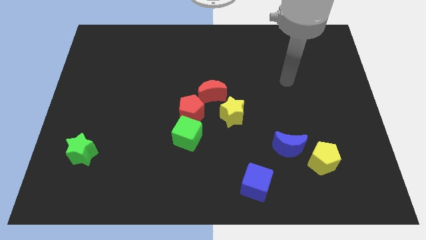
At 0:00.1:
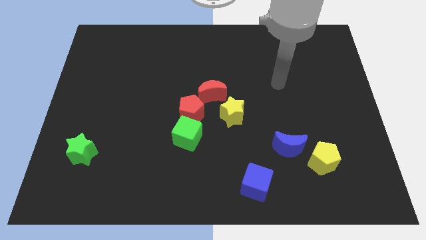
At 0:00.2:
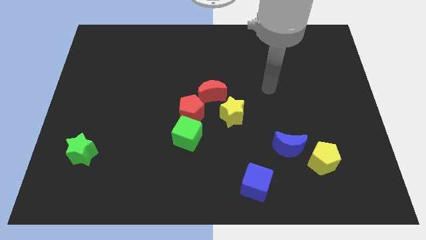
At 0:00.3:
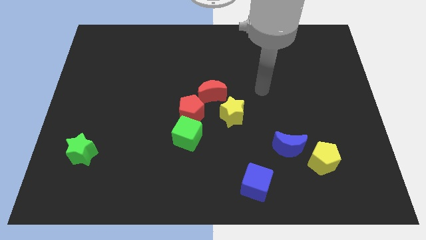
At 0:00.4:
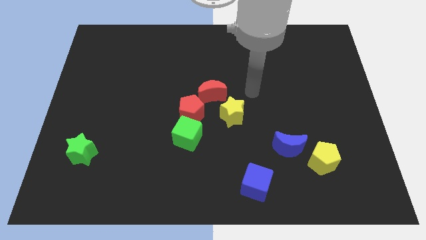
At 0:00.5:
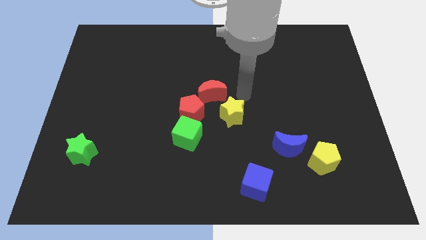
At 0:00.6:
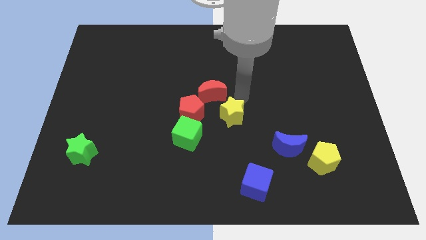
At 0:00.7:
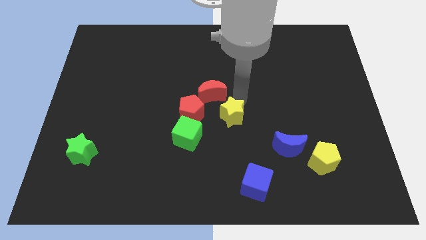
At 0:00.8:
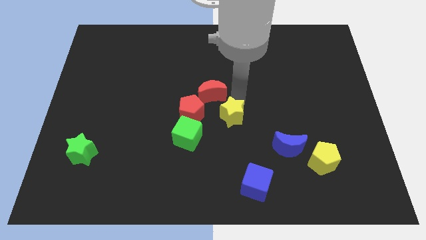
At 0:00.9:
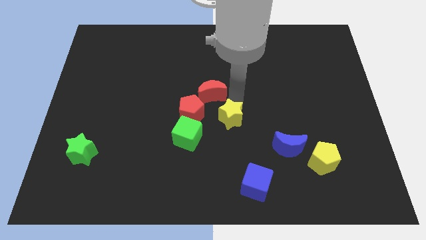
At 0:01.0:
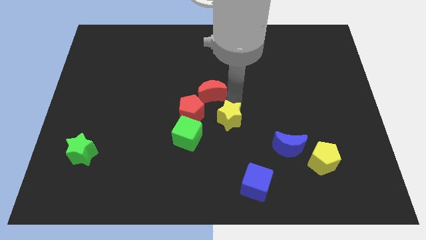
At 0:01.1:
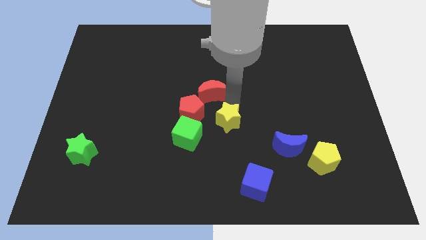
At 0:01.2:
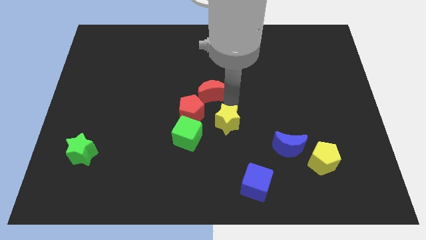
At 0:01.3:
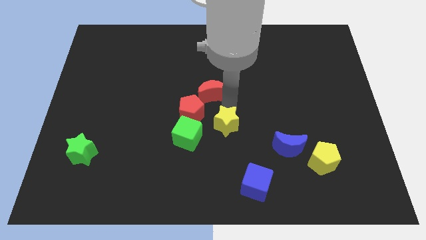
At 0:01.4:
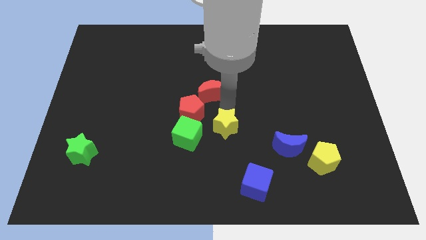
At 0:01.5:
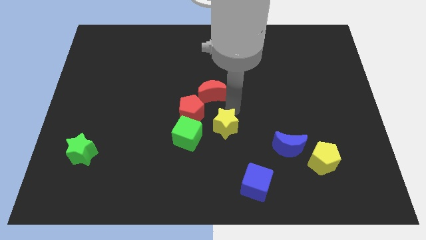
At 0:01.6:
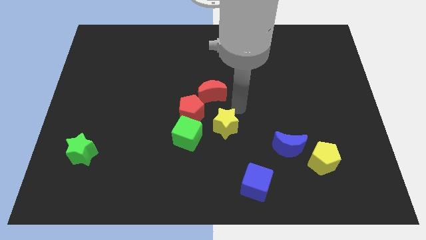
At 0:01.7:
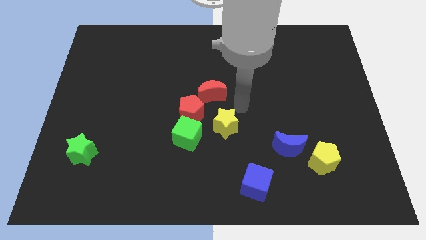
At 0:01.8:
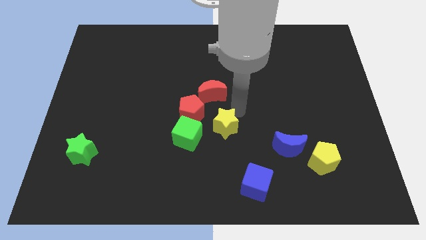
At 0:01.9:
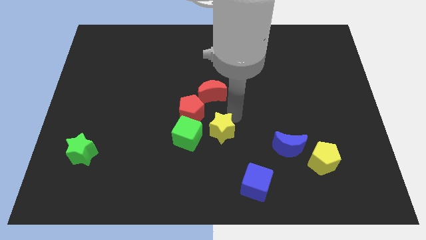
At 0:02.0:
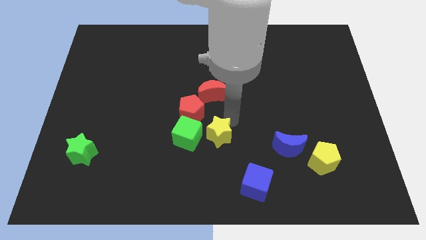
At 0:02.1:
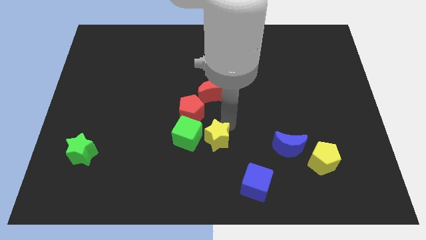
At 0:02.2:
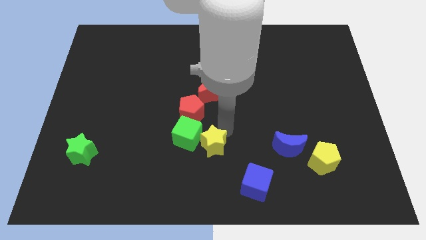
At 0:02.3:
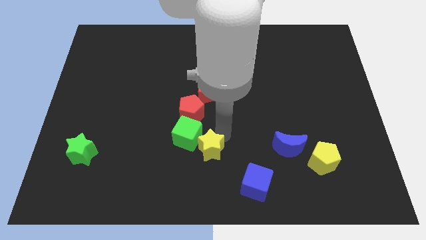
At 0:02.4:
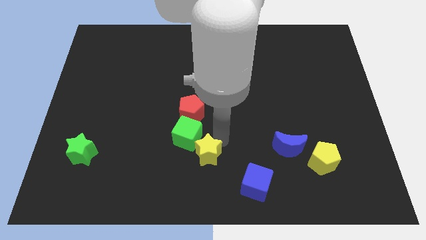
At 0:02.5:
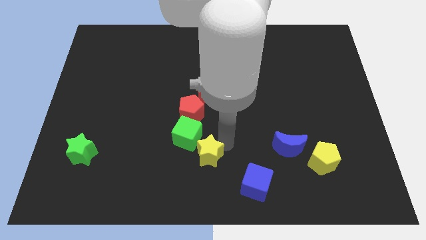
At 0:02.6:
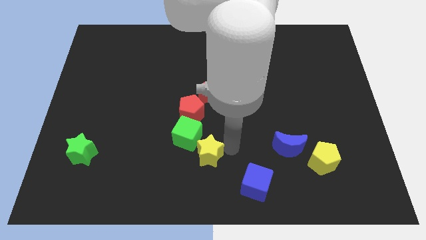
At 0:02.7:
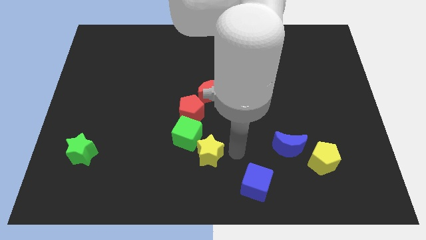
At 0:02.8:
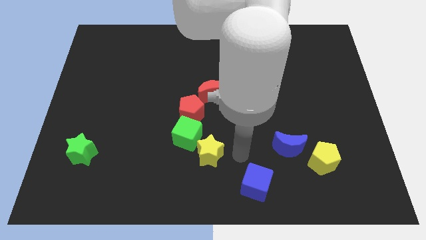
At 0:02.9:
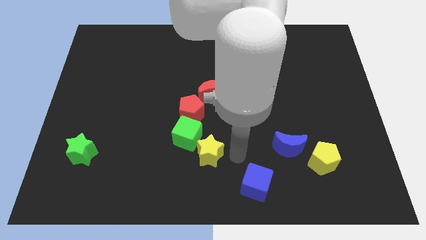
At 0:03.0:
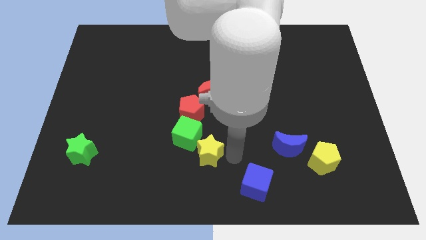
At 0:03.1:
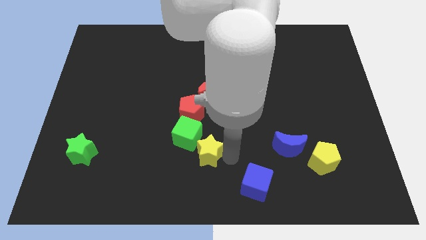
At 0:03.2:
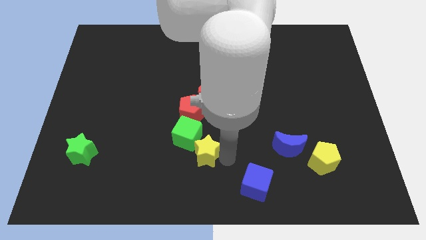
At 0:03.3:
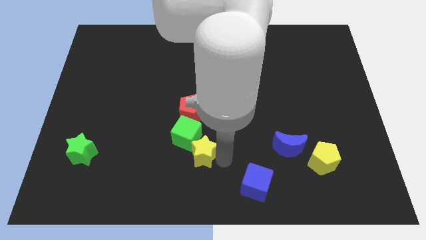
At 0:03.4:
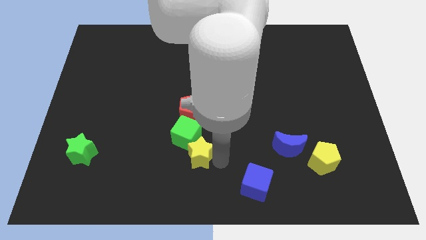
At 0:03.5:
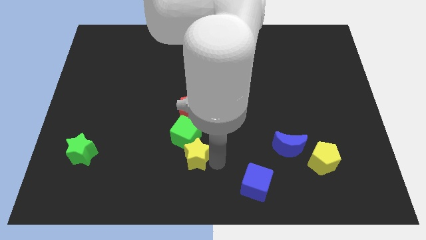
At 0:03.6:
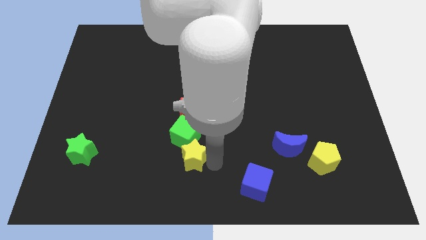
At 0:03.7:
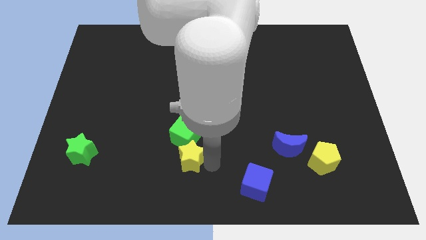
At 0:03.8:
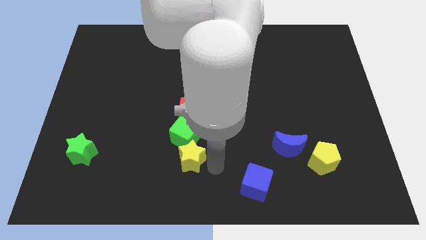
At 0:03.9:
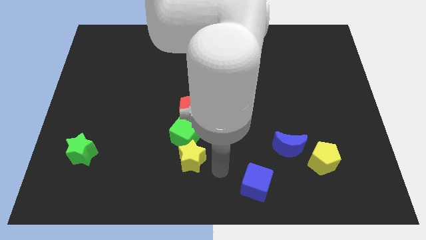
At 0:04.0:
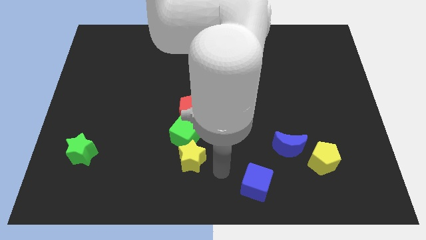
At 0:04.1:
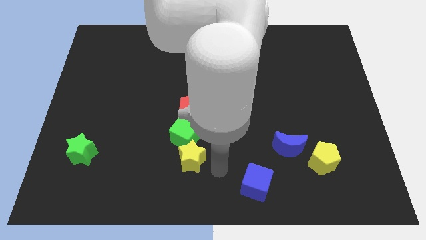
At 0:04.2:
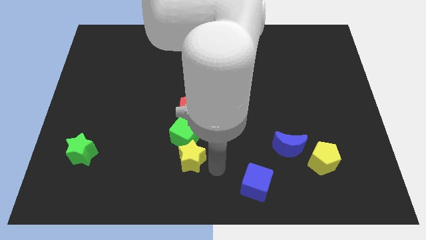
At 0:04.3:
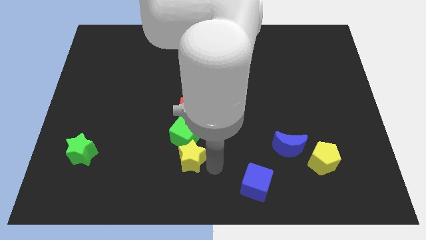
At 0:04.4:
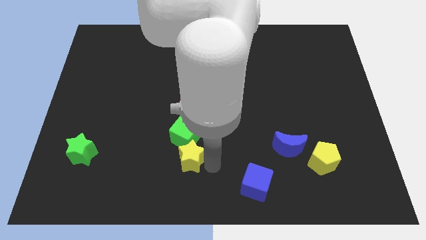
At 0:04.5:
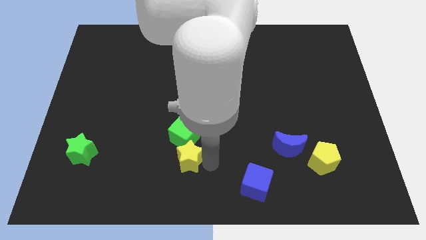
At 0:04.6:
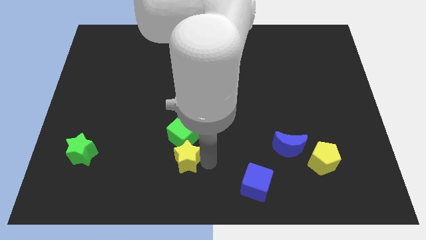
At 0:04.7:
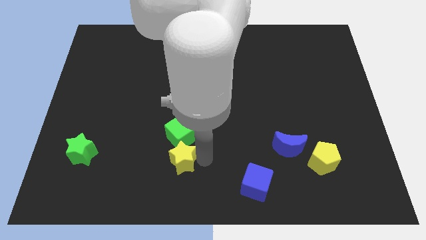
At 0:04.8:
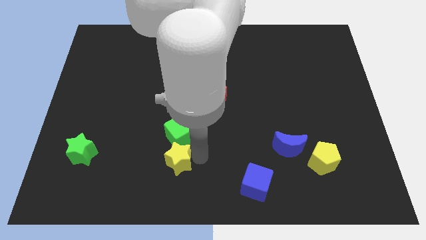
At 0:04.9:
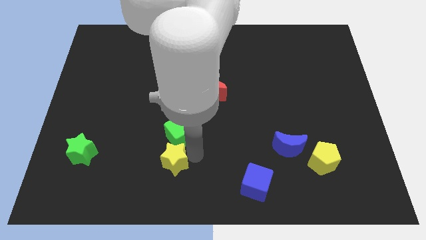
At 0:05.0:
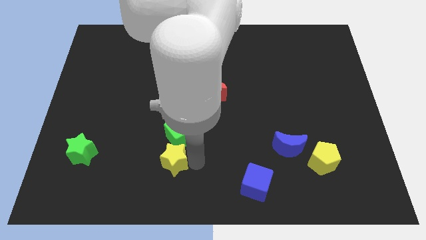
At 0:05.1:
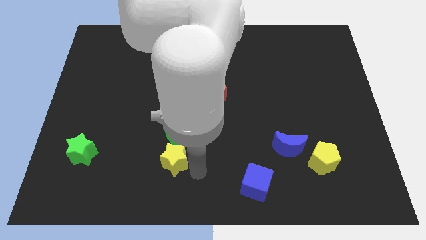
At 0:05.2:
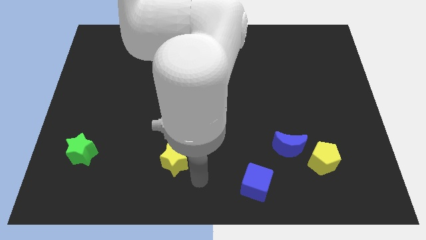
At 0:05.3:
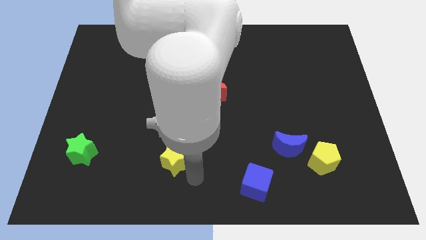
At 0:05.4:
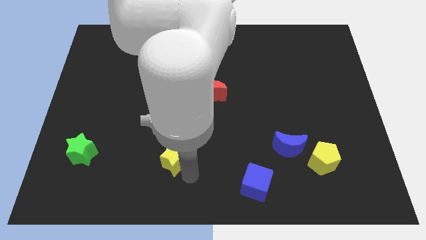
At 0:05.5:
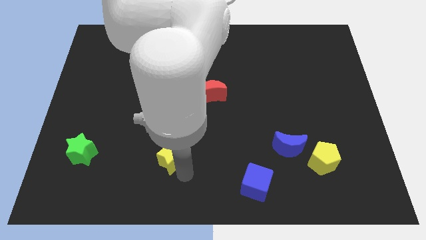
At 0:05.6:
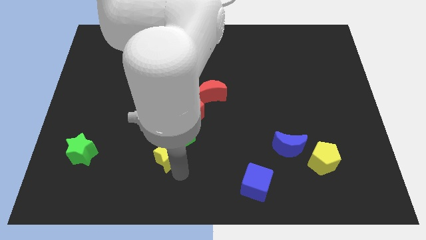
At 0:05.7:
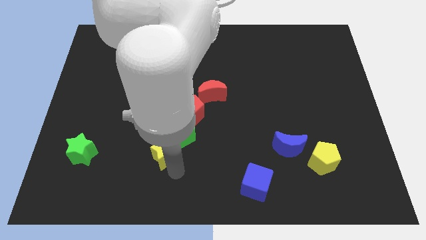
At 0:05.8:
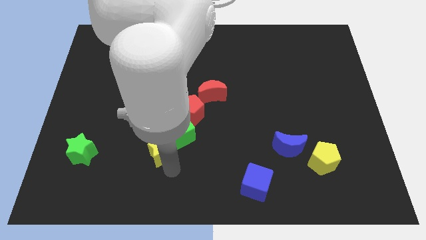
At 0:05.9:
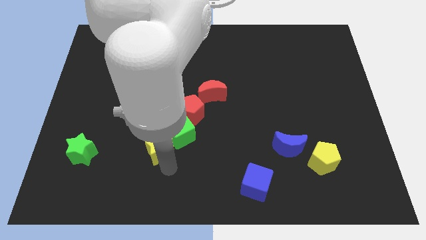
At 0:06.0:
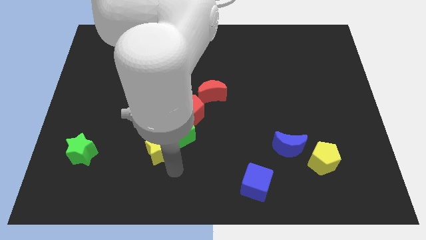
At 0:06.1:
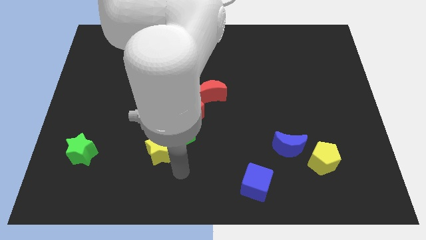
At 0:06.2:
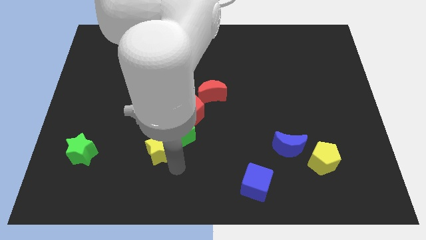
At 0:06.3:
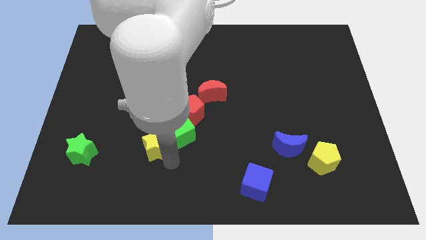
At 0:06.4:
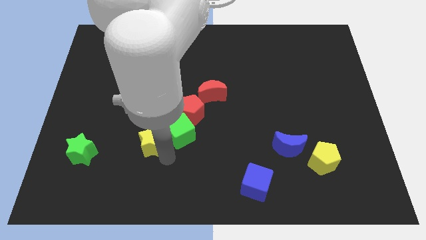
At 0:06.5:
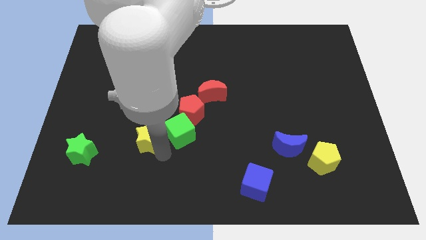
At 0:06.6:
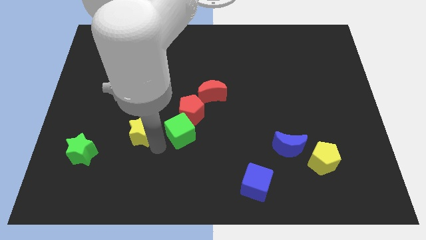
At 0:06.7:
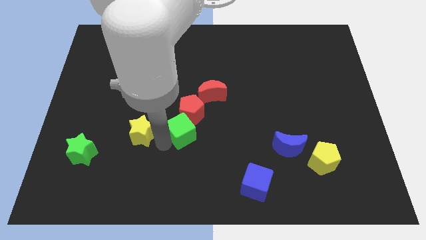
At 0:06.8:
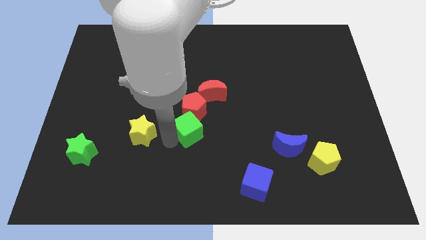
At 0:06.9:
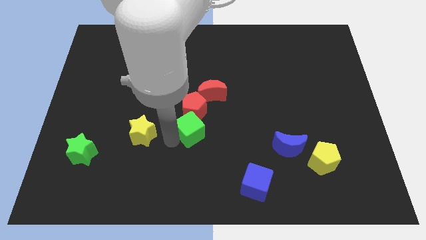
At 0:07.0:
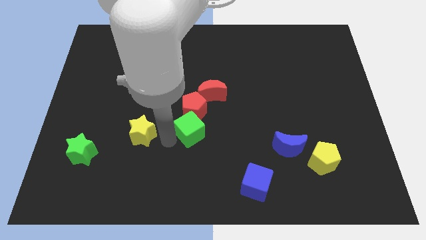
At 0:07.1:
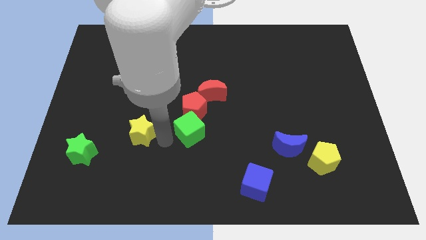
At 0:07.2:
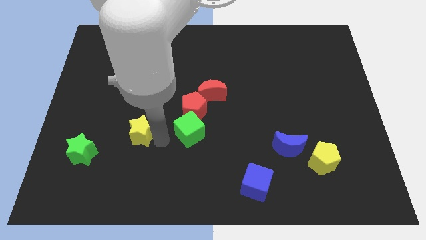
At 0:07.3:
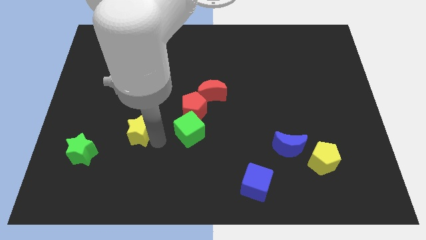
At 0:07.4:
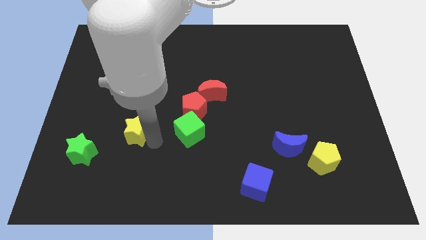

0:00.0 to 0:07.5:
move the yellow star left
